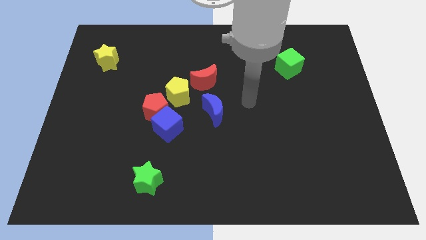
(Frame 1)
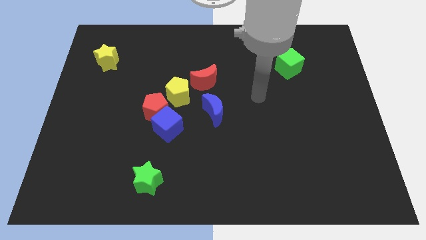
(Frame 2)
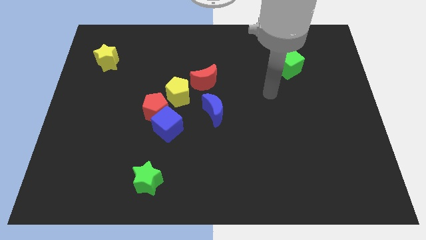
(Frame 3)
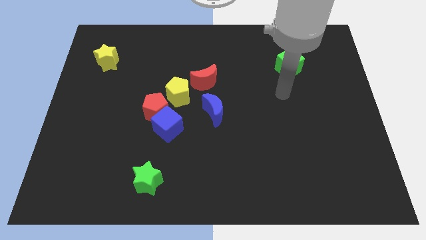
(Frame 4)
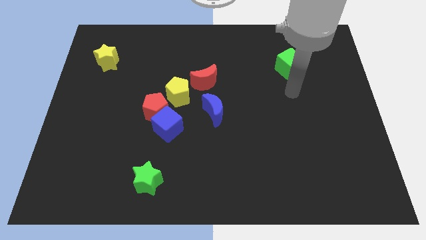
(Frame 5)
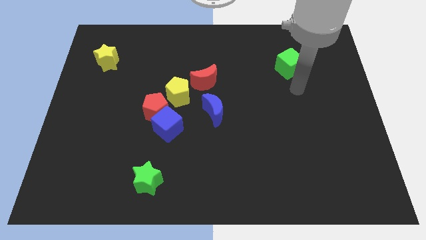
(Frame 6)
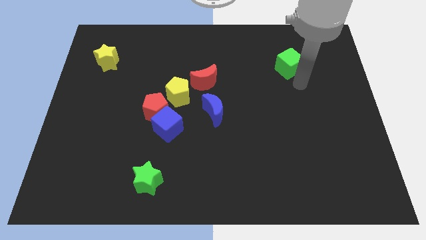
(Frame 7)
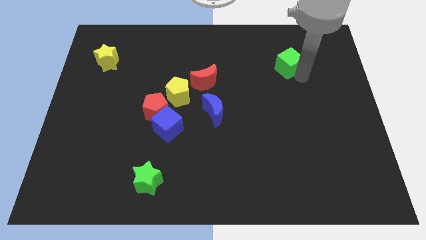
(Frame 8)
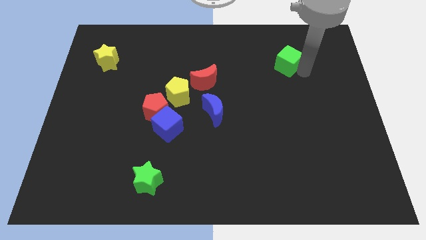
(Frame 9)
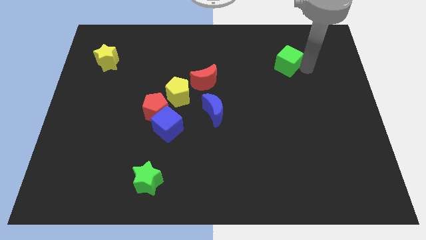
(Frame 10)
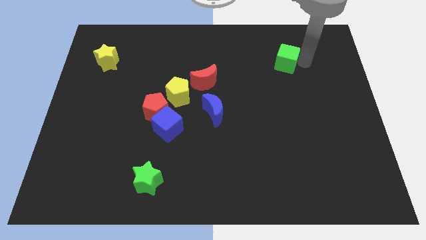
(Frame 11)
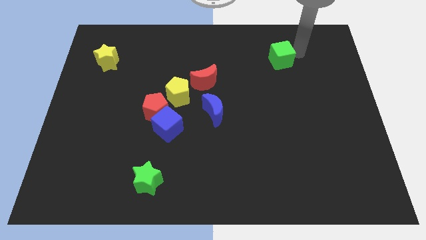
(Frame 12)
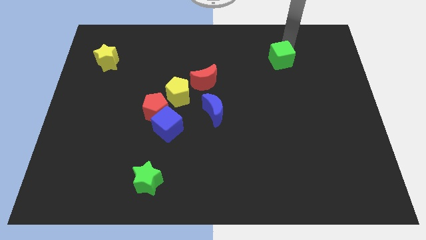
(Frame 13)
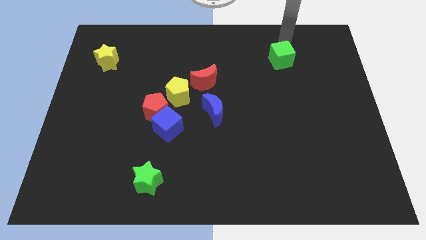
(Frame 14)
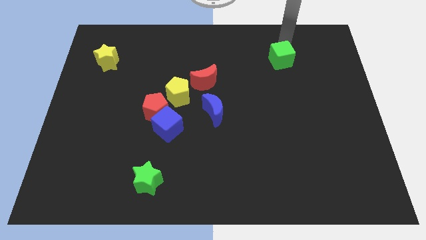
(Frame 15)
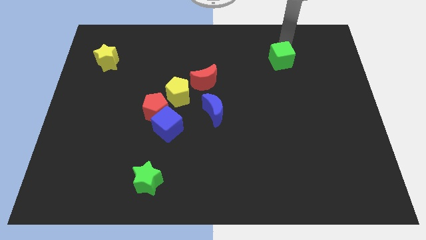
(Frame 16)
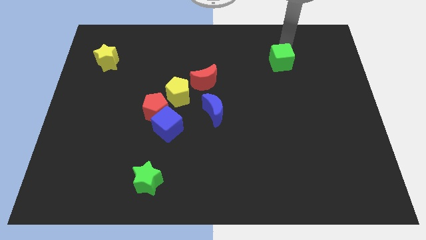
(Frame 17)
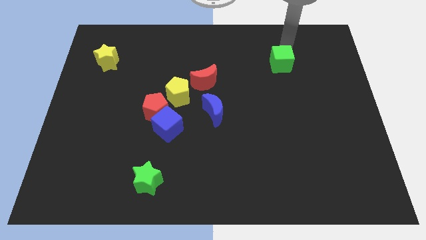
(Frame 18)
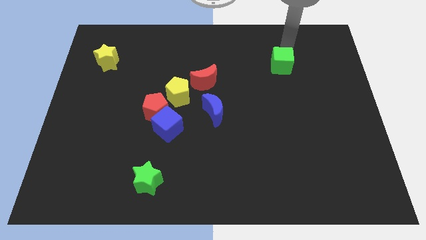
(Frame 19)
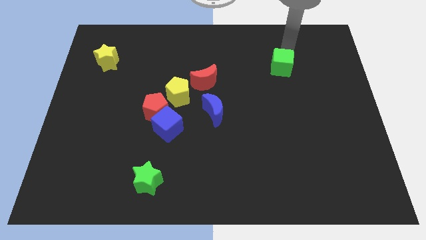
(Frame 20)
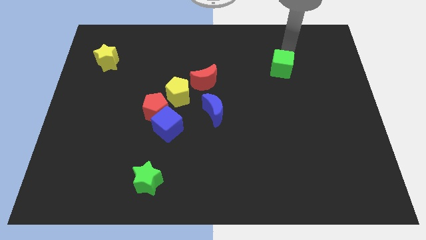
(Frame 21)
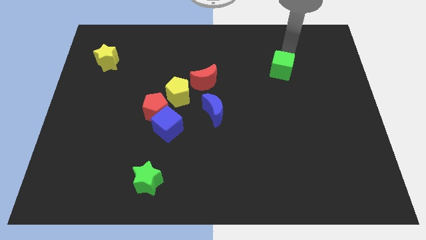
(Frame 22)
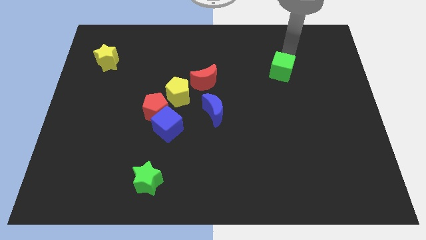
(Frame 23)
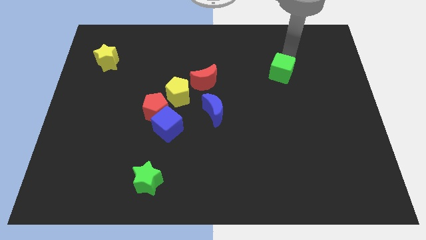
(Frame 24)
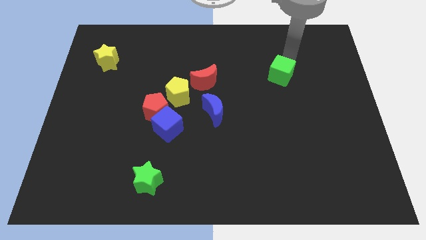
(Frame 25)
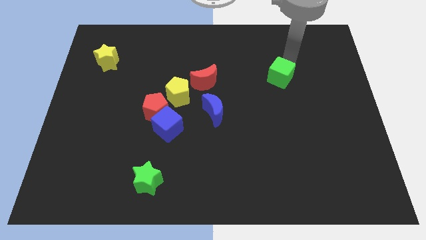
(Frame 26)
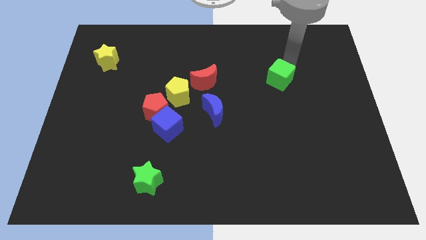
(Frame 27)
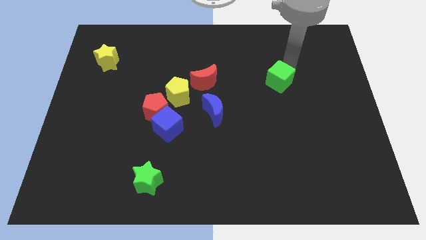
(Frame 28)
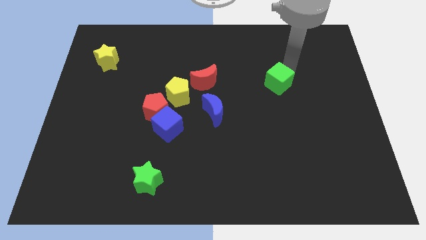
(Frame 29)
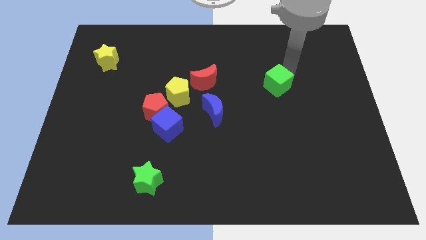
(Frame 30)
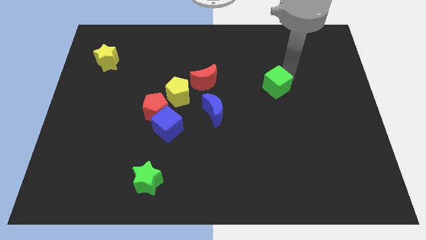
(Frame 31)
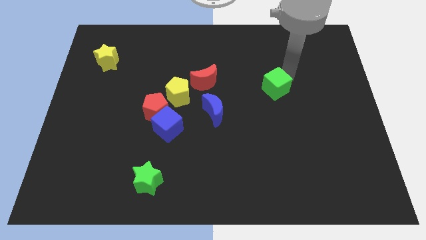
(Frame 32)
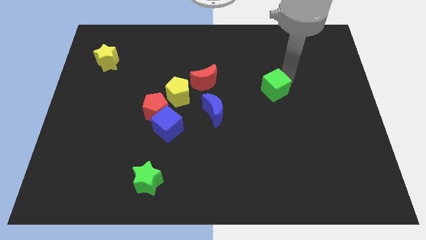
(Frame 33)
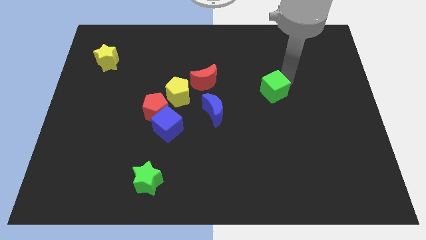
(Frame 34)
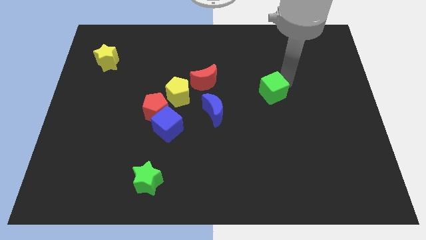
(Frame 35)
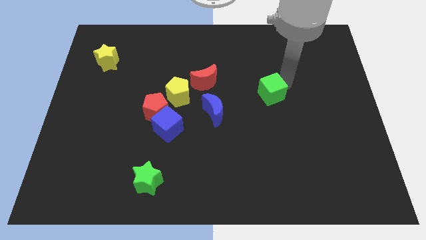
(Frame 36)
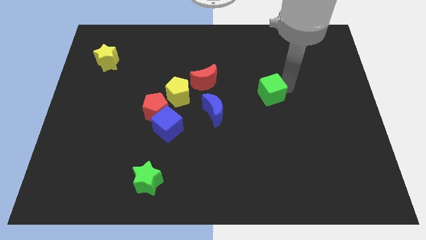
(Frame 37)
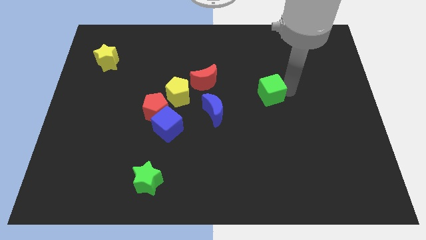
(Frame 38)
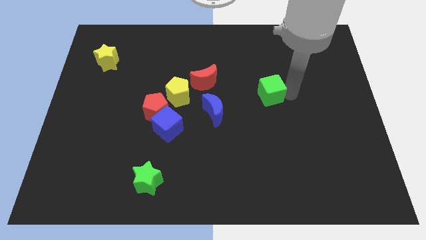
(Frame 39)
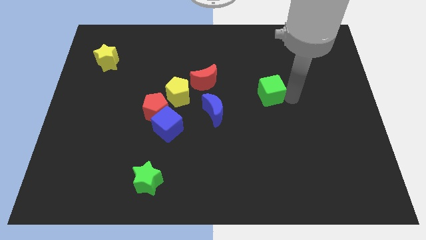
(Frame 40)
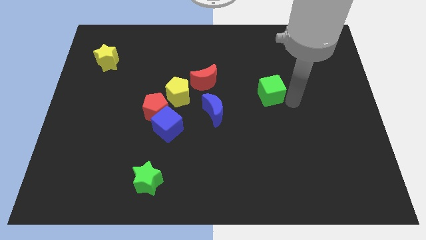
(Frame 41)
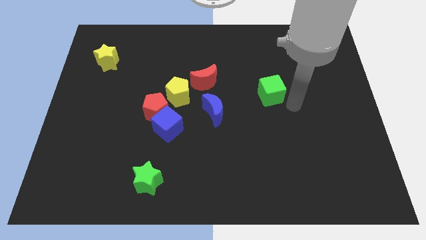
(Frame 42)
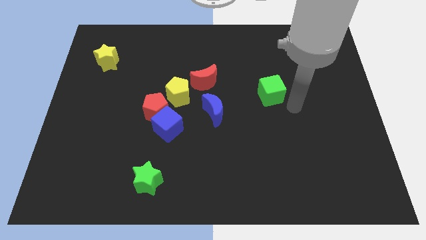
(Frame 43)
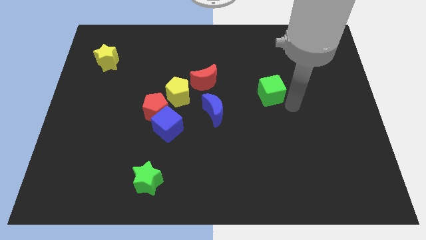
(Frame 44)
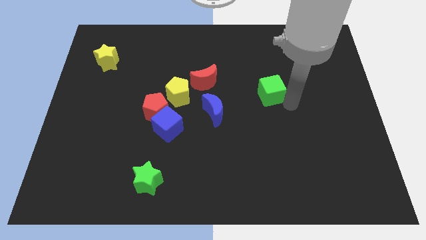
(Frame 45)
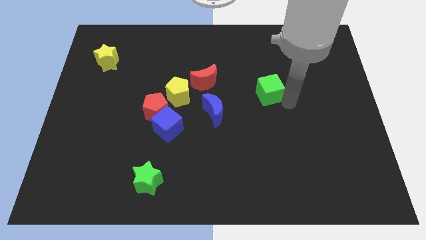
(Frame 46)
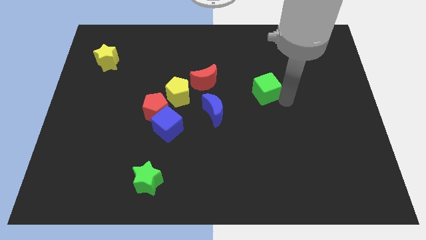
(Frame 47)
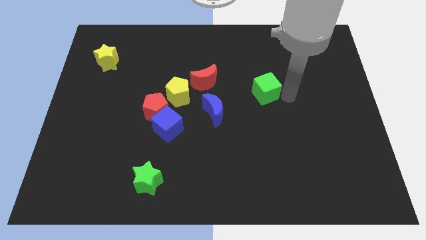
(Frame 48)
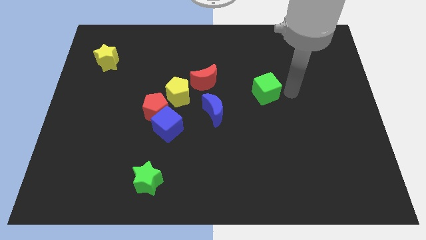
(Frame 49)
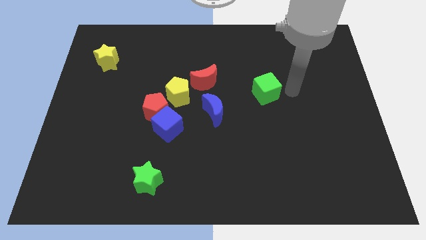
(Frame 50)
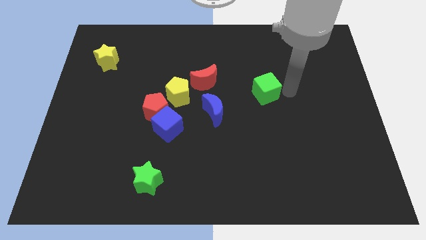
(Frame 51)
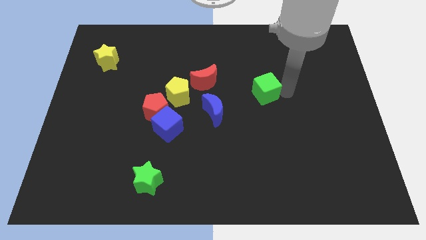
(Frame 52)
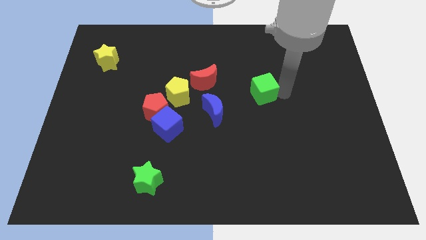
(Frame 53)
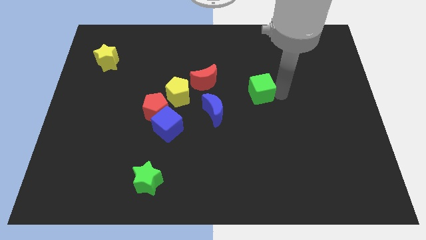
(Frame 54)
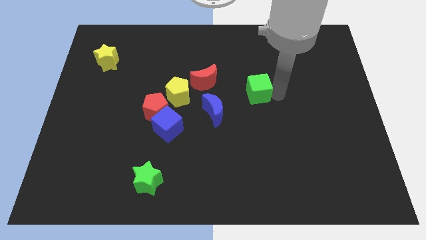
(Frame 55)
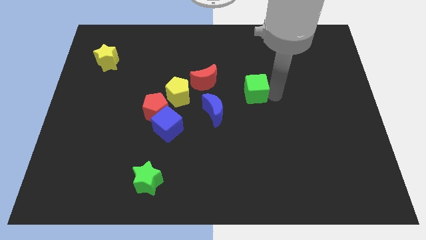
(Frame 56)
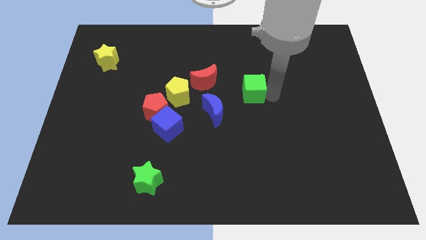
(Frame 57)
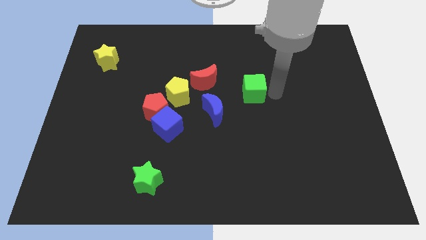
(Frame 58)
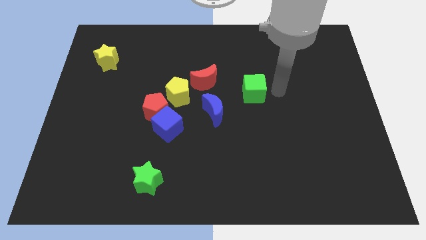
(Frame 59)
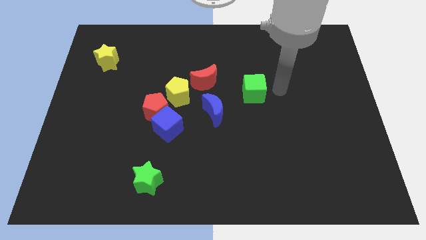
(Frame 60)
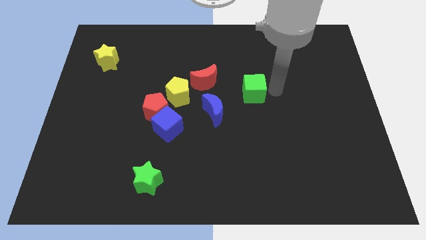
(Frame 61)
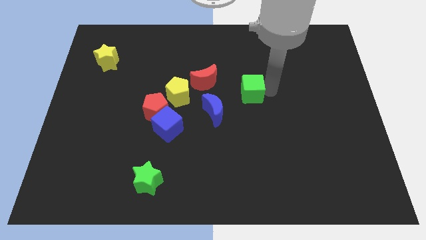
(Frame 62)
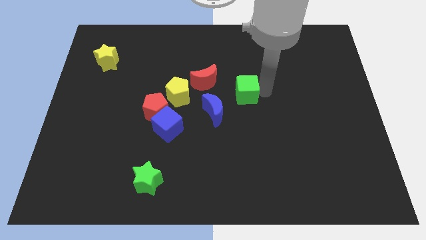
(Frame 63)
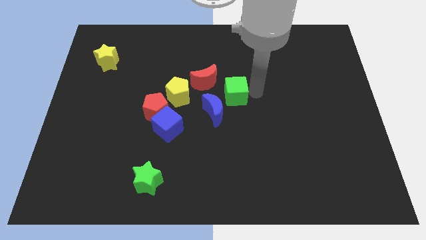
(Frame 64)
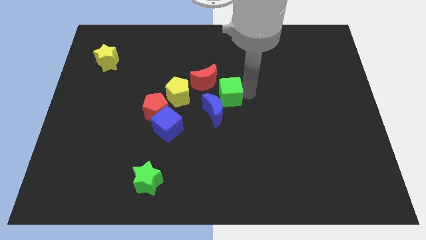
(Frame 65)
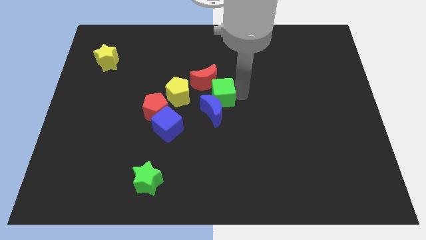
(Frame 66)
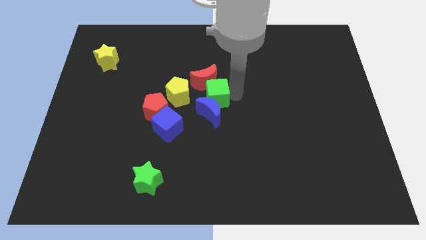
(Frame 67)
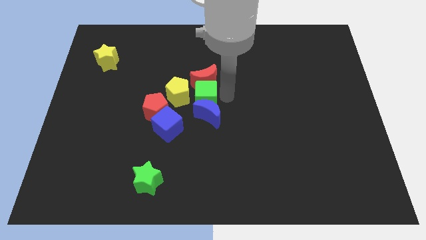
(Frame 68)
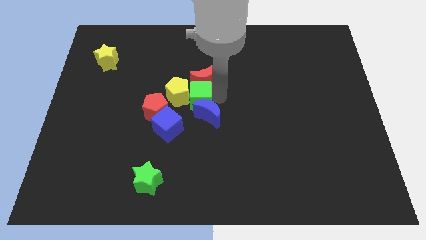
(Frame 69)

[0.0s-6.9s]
slide the green cube close to the yellow pentagon
